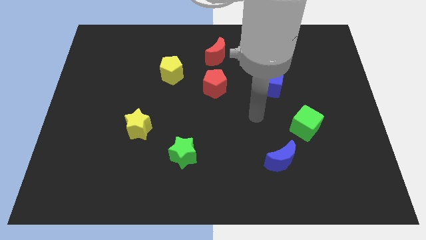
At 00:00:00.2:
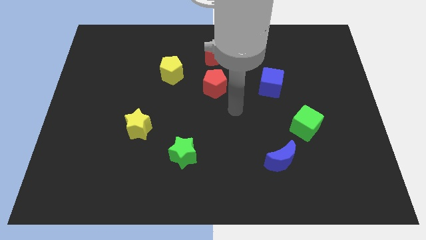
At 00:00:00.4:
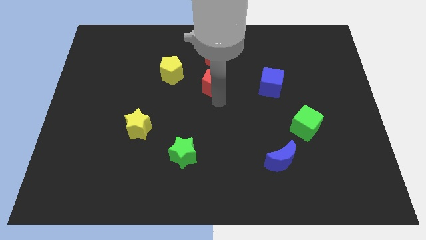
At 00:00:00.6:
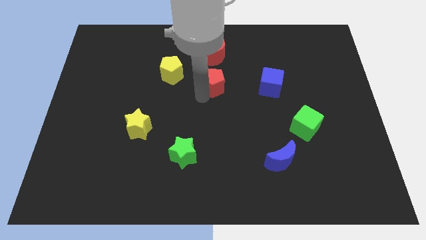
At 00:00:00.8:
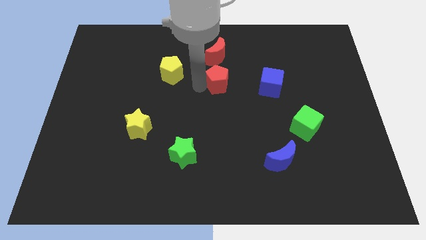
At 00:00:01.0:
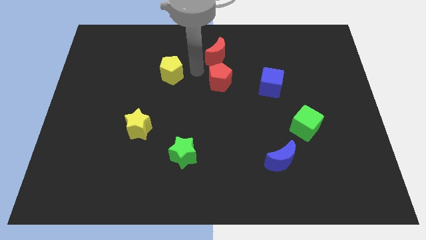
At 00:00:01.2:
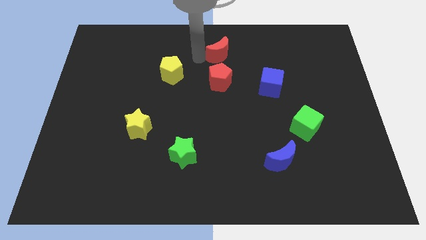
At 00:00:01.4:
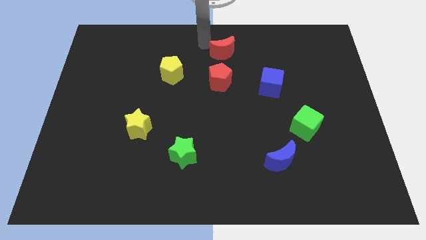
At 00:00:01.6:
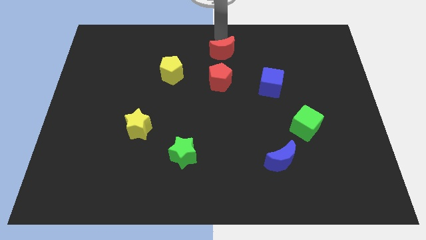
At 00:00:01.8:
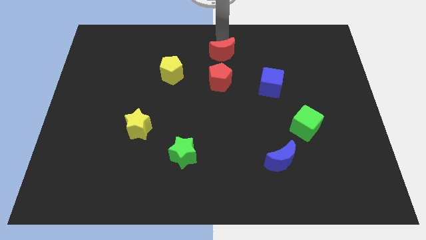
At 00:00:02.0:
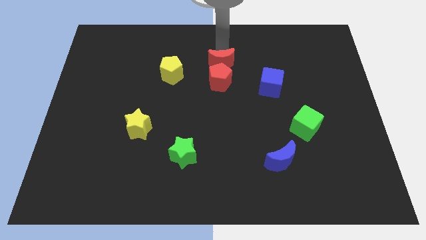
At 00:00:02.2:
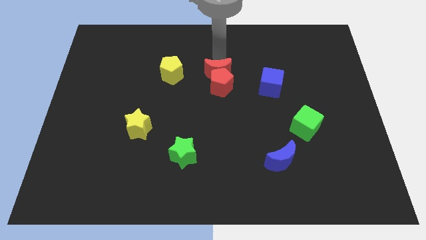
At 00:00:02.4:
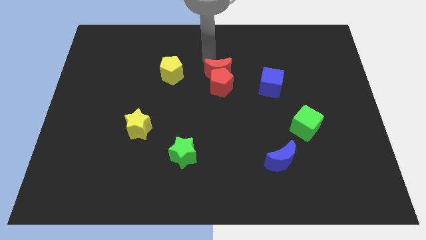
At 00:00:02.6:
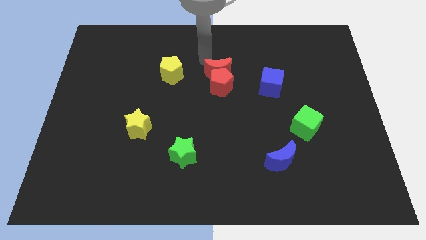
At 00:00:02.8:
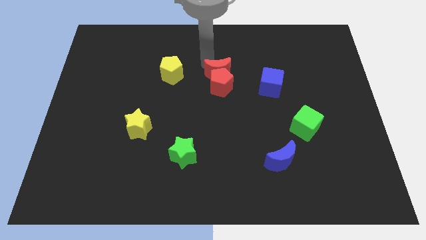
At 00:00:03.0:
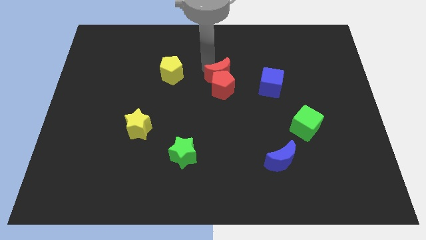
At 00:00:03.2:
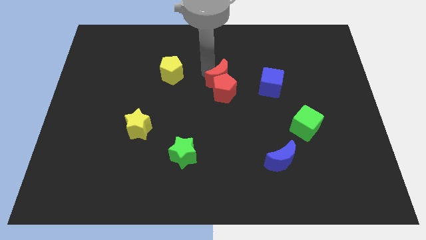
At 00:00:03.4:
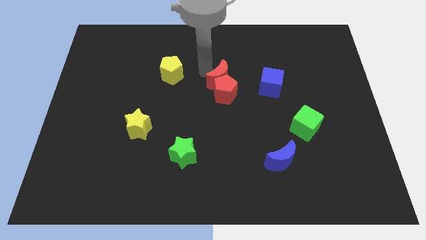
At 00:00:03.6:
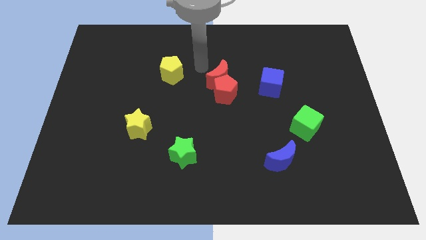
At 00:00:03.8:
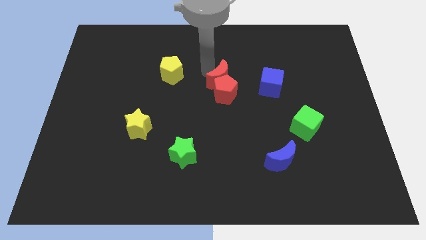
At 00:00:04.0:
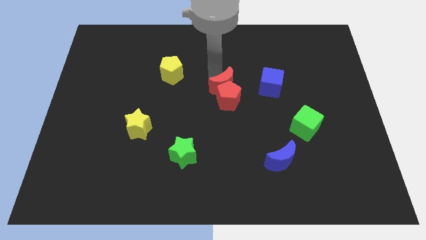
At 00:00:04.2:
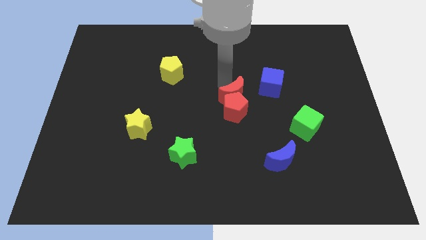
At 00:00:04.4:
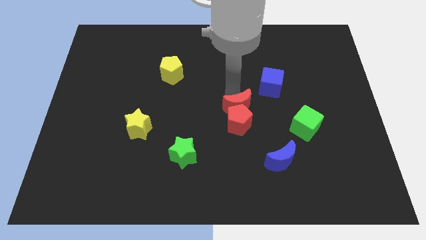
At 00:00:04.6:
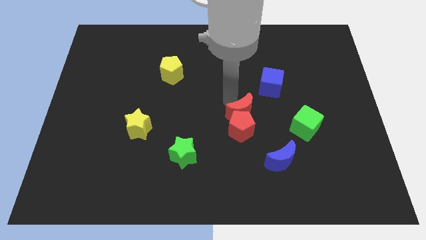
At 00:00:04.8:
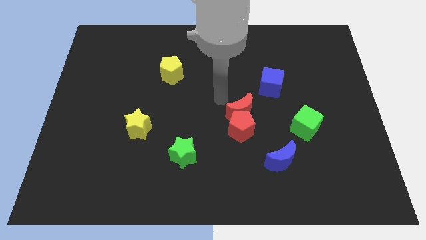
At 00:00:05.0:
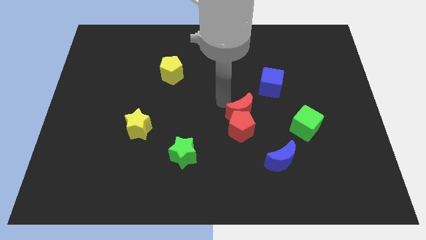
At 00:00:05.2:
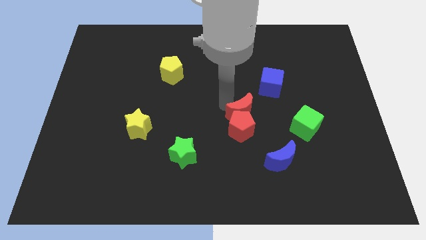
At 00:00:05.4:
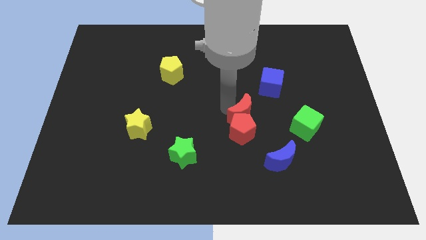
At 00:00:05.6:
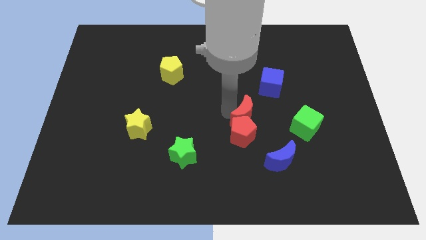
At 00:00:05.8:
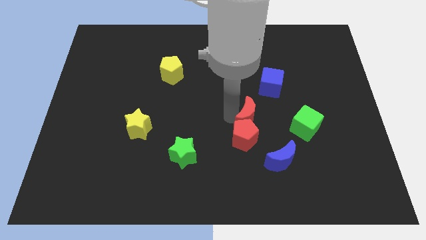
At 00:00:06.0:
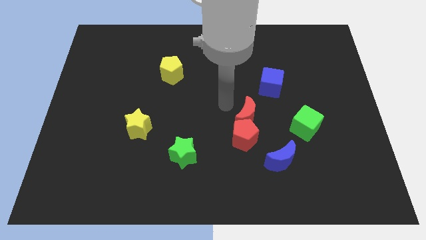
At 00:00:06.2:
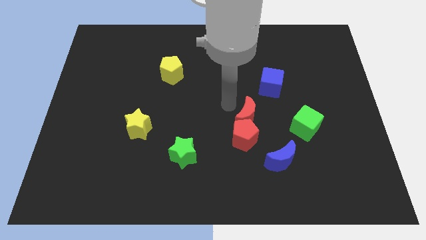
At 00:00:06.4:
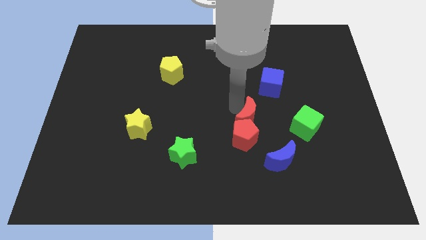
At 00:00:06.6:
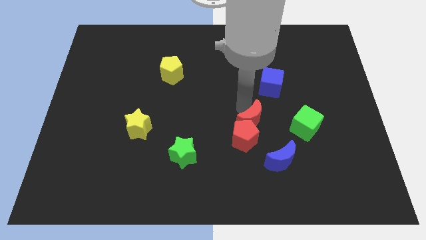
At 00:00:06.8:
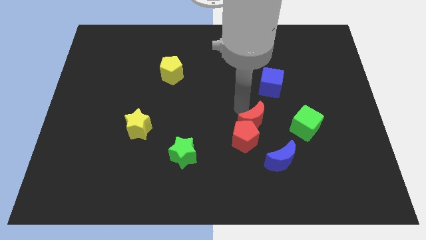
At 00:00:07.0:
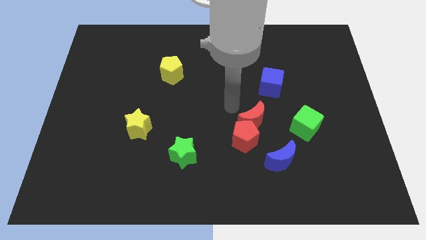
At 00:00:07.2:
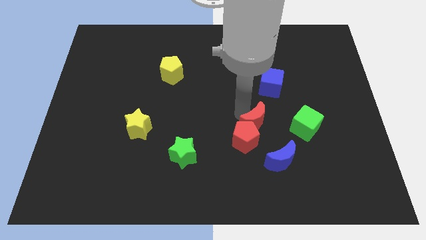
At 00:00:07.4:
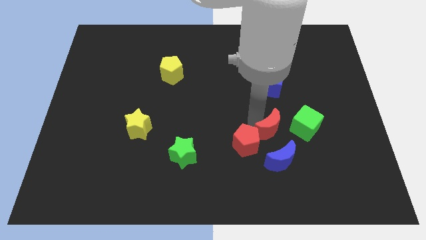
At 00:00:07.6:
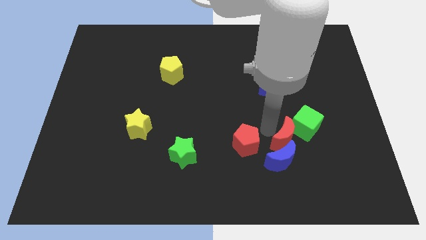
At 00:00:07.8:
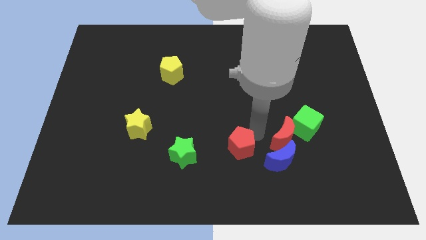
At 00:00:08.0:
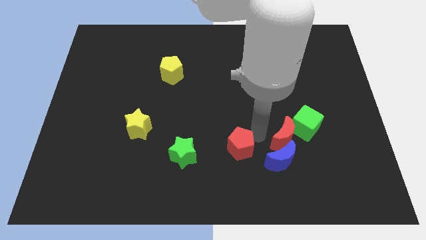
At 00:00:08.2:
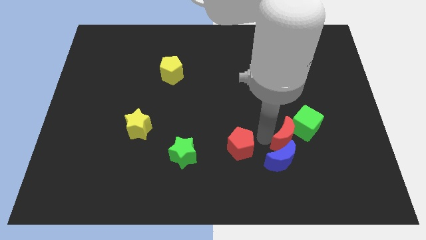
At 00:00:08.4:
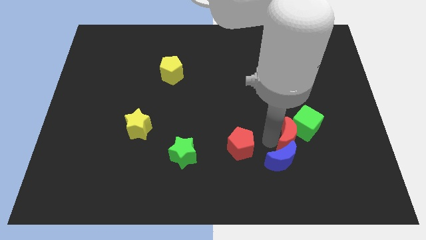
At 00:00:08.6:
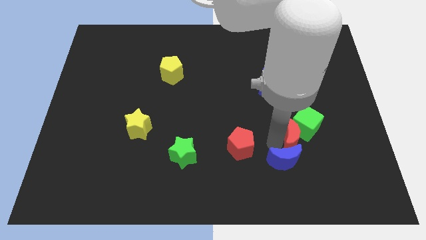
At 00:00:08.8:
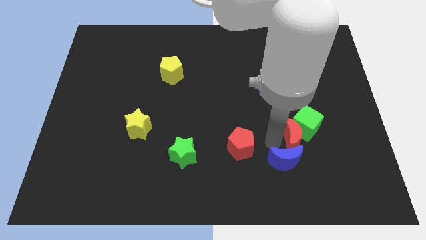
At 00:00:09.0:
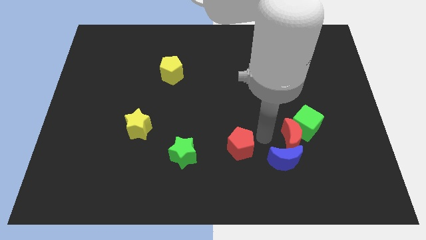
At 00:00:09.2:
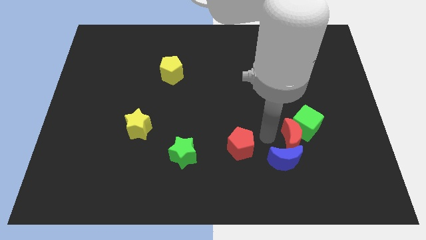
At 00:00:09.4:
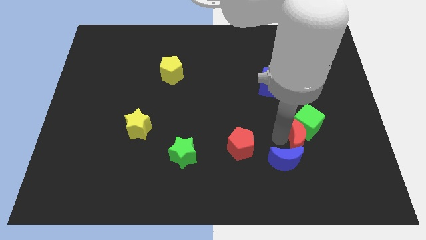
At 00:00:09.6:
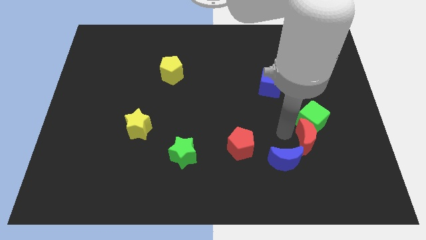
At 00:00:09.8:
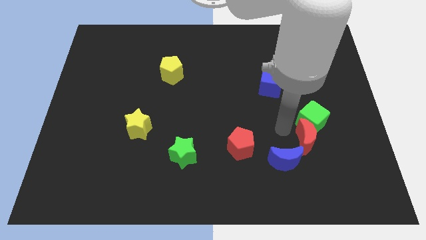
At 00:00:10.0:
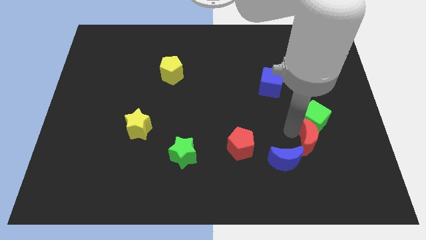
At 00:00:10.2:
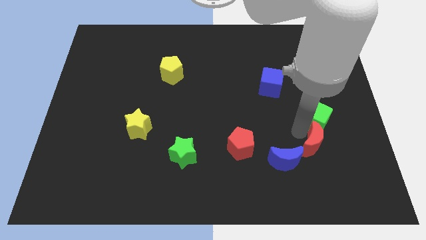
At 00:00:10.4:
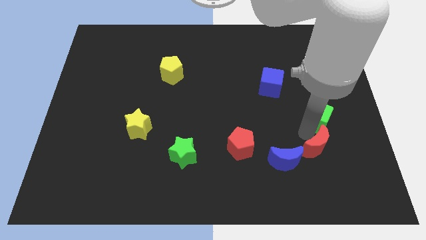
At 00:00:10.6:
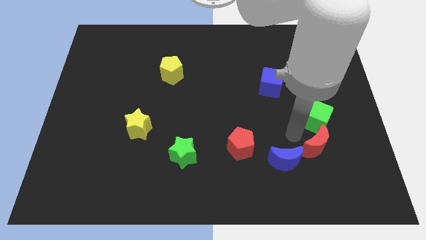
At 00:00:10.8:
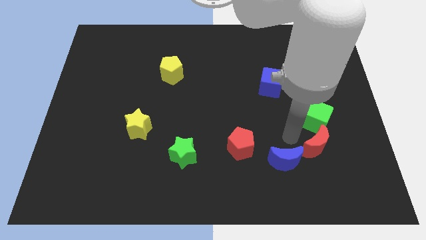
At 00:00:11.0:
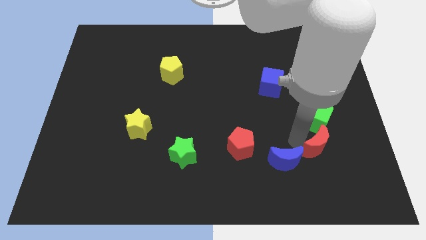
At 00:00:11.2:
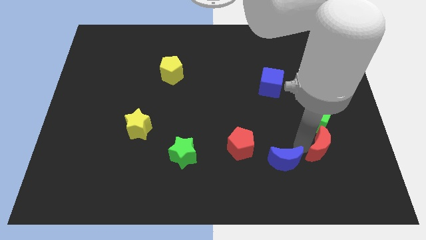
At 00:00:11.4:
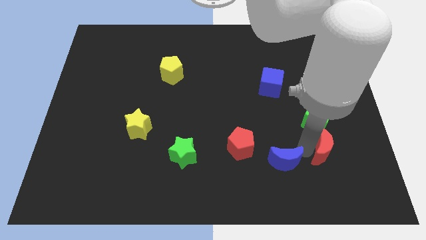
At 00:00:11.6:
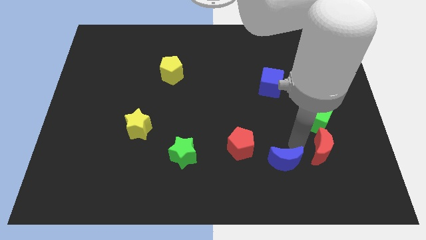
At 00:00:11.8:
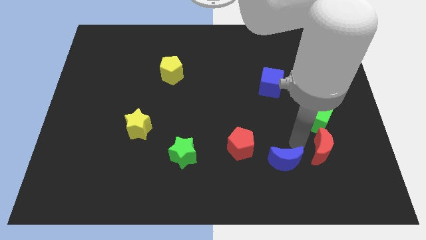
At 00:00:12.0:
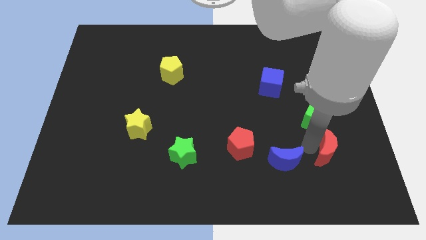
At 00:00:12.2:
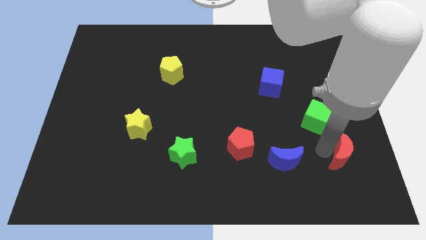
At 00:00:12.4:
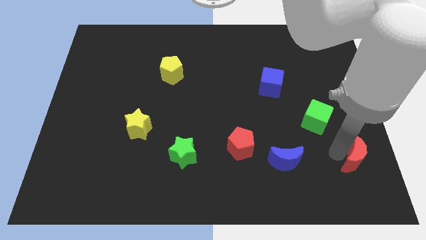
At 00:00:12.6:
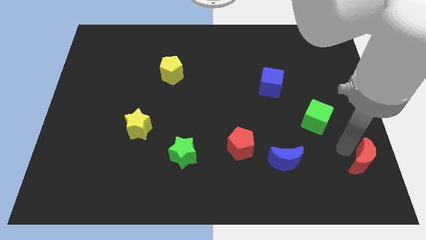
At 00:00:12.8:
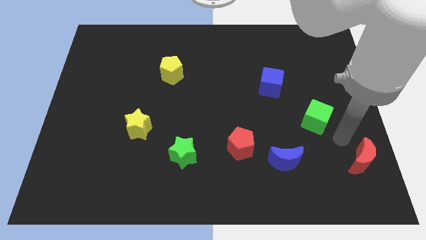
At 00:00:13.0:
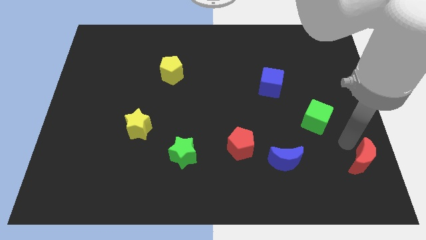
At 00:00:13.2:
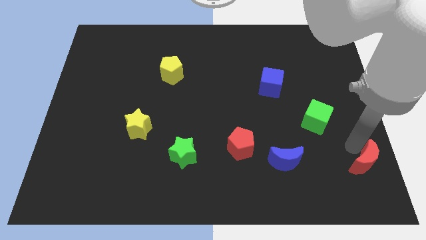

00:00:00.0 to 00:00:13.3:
move the red moon to the bottom right
